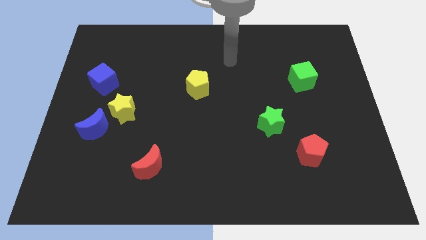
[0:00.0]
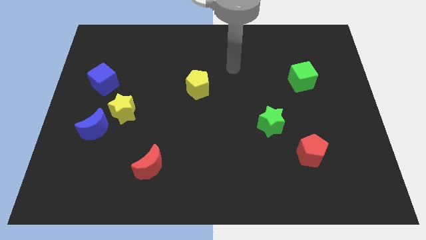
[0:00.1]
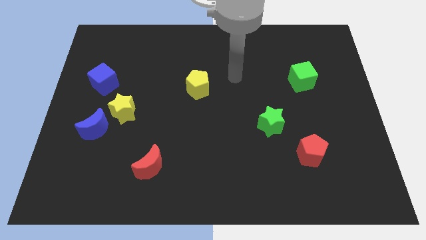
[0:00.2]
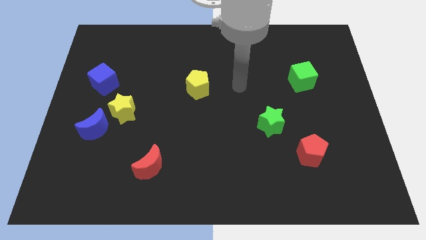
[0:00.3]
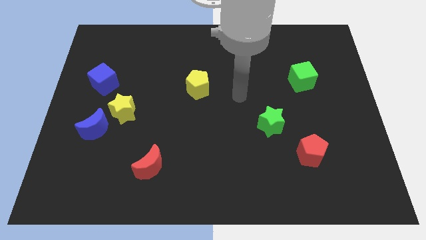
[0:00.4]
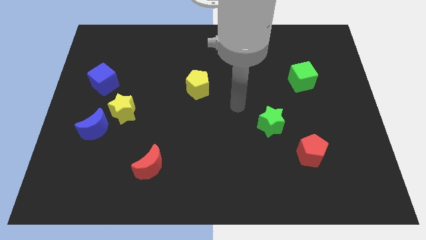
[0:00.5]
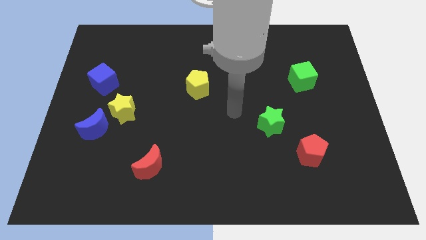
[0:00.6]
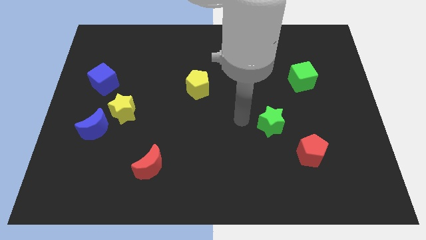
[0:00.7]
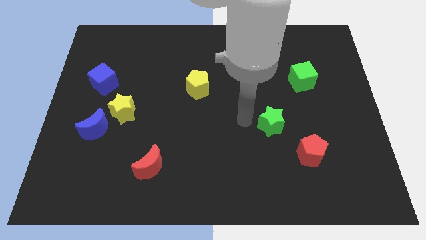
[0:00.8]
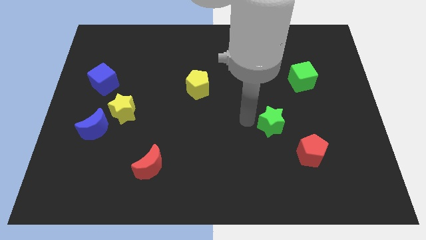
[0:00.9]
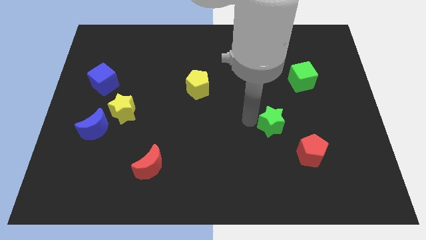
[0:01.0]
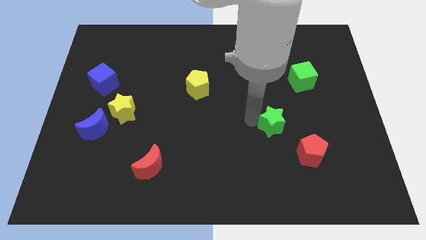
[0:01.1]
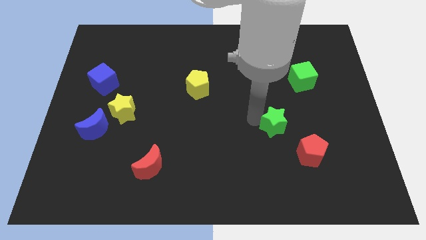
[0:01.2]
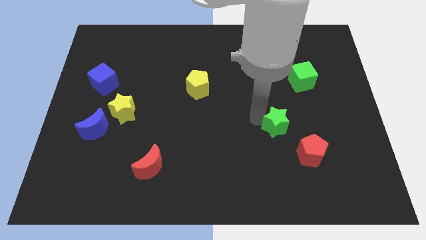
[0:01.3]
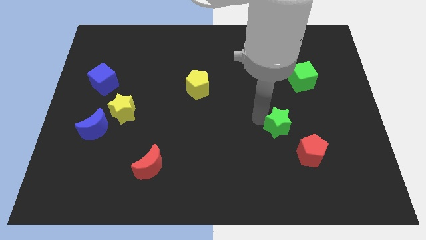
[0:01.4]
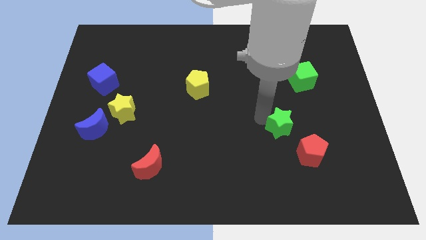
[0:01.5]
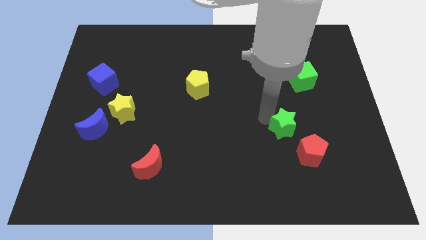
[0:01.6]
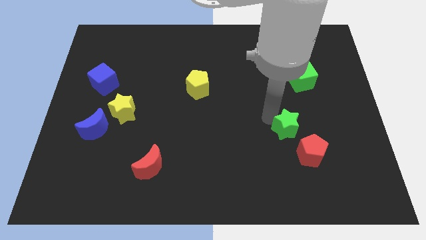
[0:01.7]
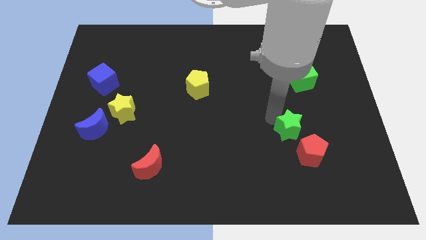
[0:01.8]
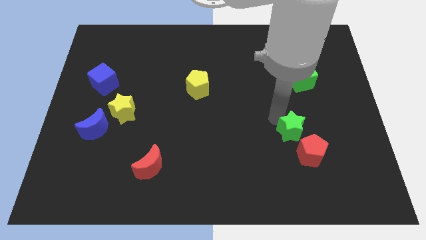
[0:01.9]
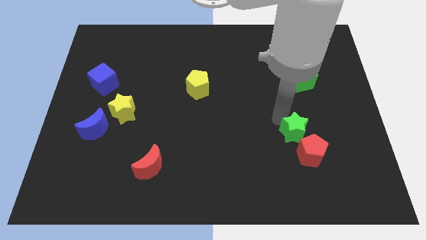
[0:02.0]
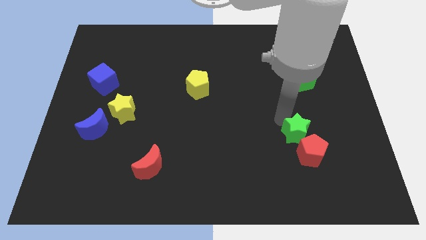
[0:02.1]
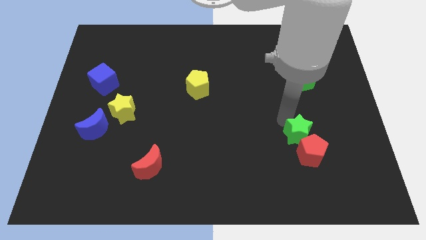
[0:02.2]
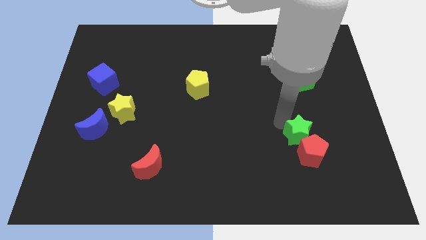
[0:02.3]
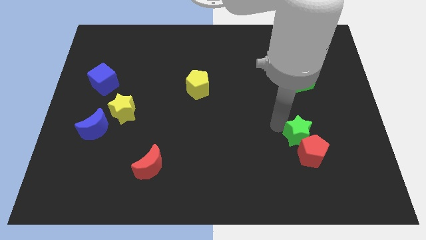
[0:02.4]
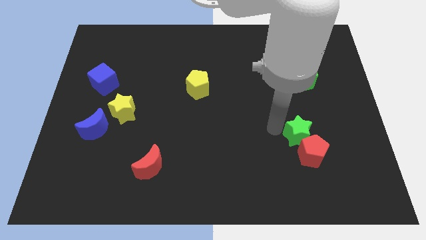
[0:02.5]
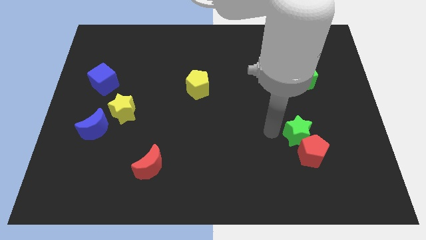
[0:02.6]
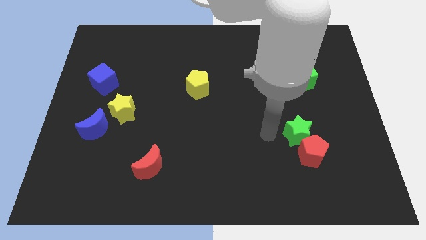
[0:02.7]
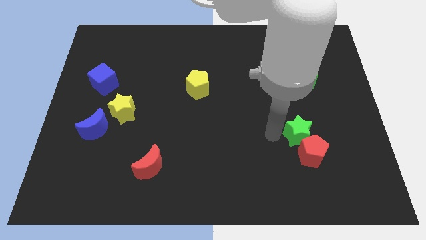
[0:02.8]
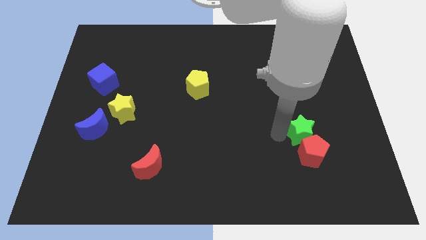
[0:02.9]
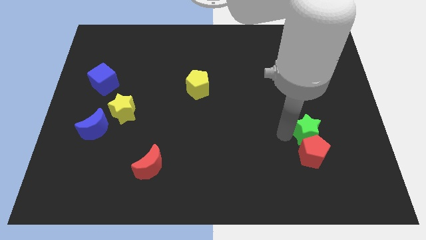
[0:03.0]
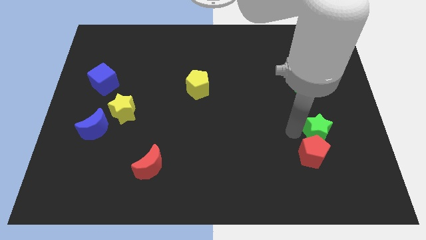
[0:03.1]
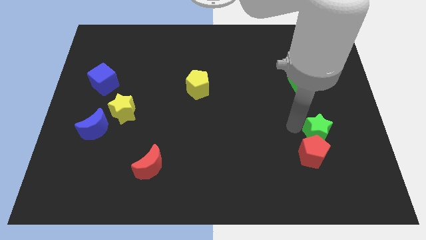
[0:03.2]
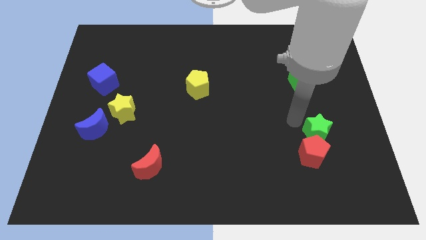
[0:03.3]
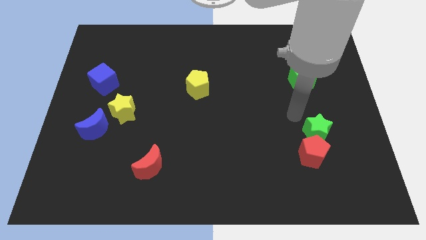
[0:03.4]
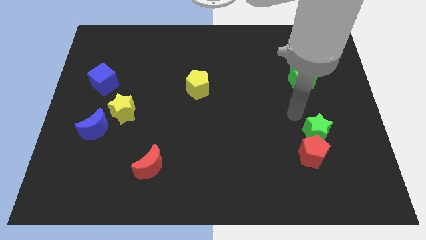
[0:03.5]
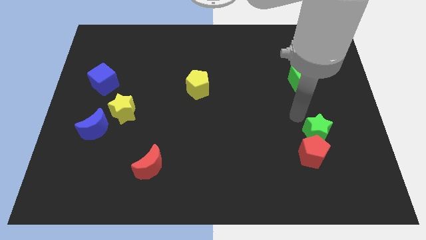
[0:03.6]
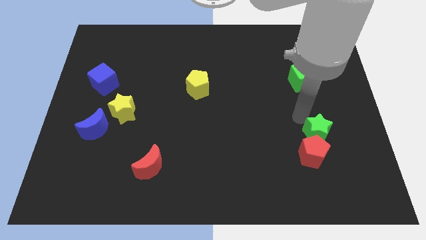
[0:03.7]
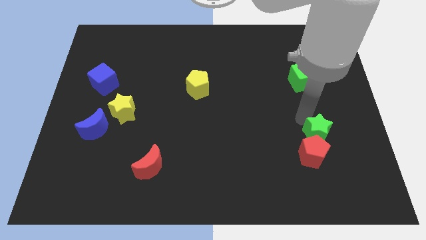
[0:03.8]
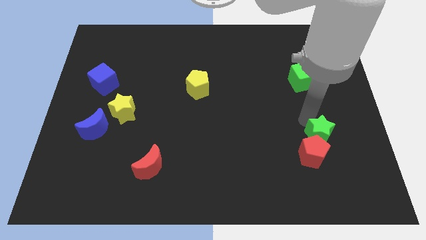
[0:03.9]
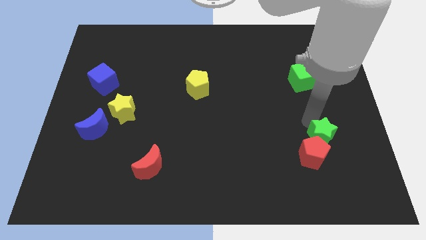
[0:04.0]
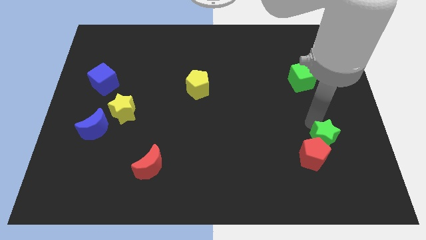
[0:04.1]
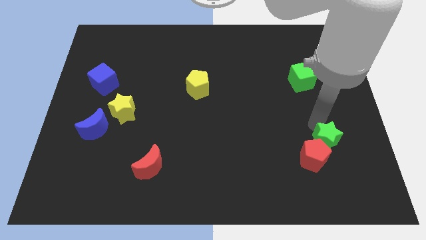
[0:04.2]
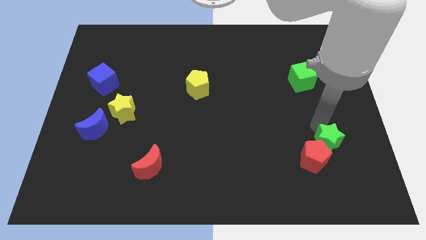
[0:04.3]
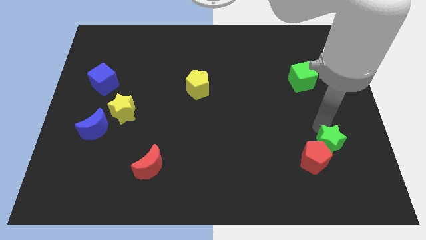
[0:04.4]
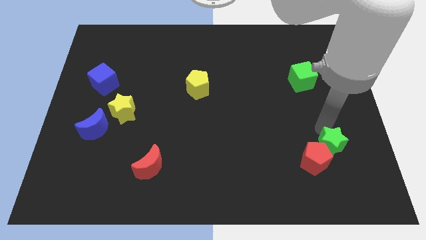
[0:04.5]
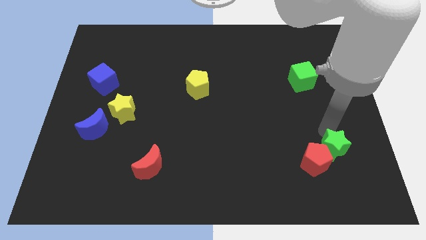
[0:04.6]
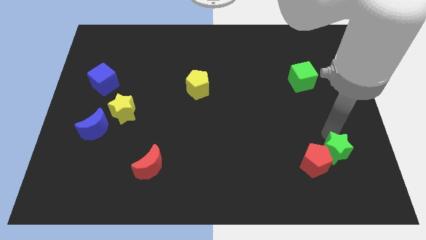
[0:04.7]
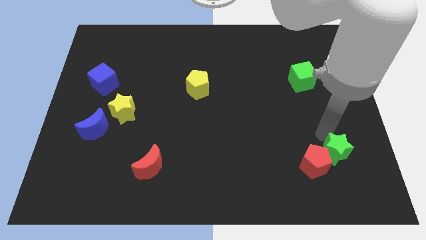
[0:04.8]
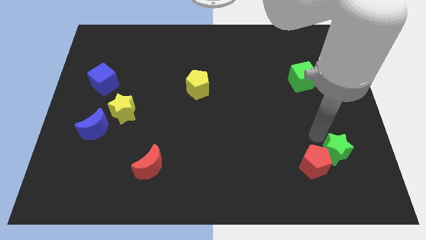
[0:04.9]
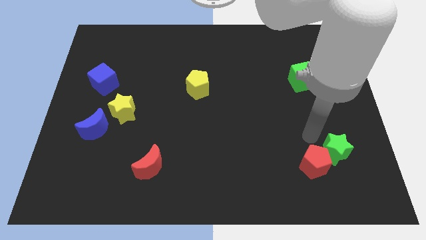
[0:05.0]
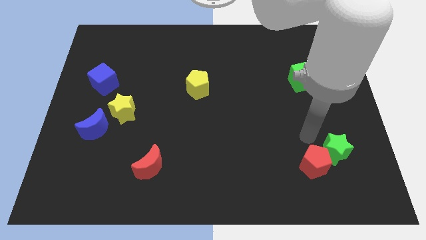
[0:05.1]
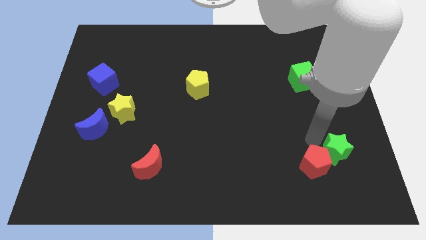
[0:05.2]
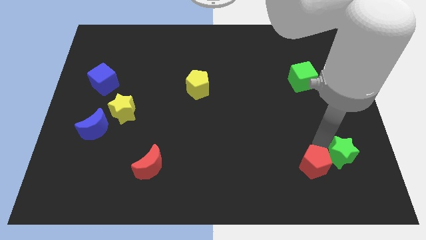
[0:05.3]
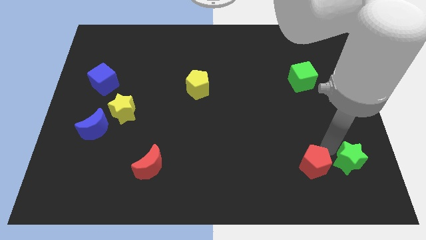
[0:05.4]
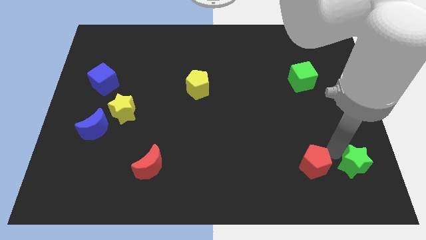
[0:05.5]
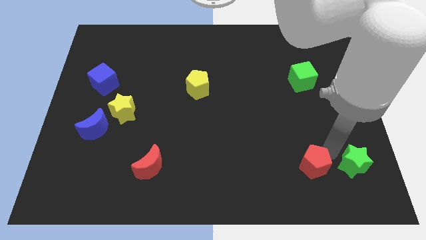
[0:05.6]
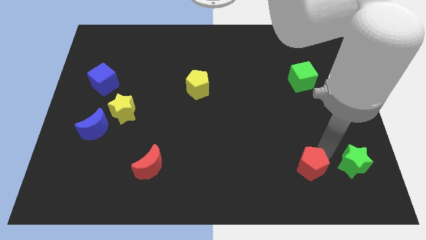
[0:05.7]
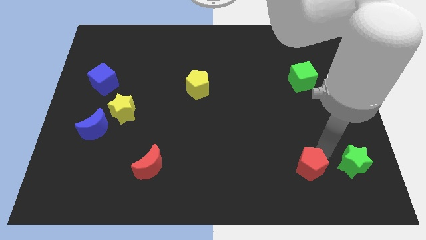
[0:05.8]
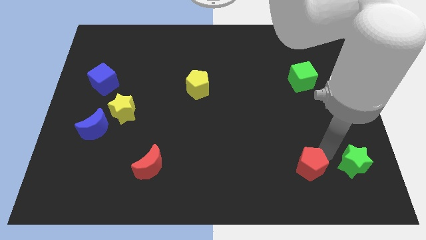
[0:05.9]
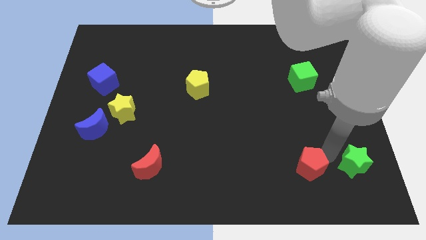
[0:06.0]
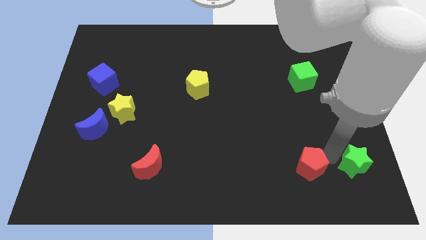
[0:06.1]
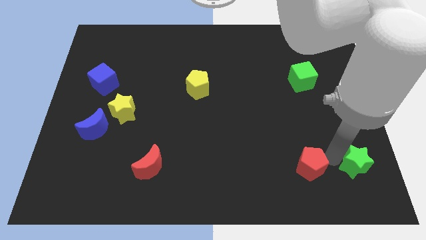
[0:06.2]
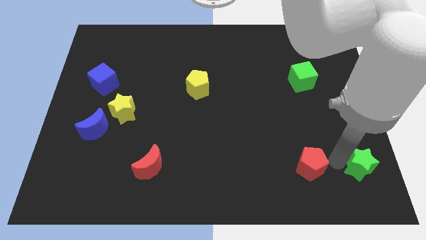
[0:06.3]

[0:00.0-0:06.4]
put the green star to the lower right corner
